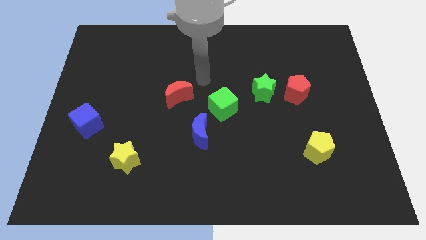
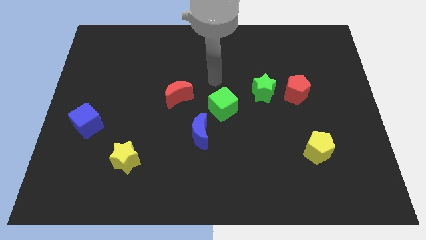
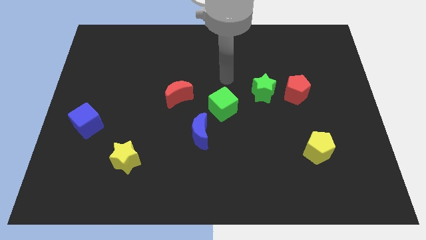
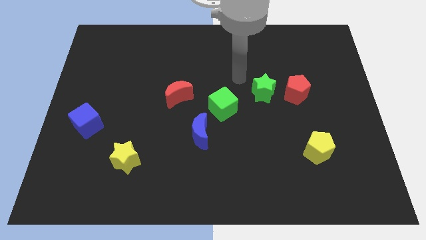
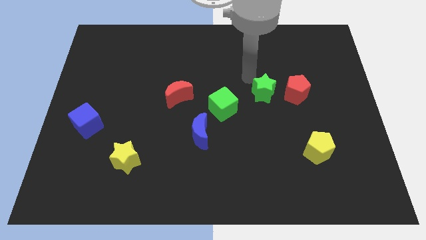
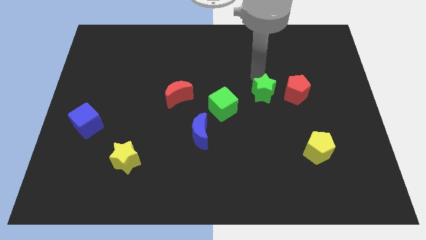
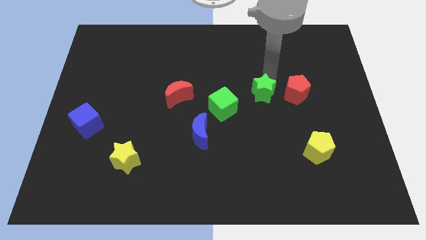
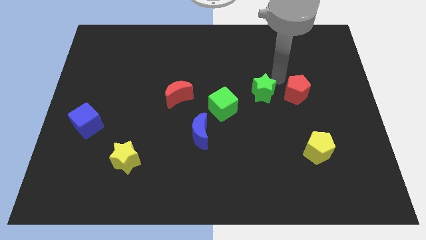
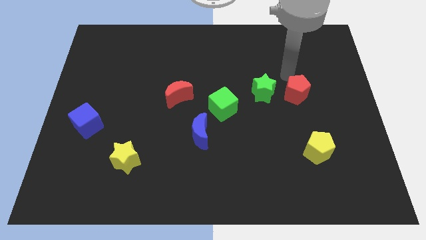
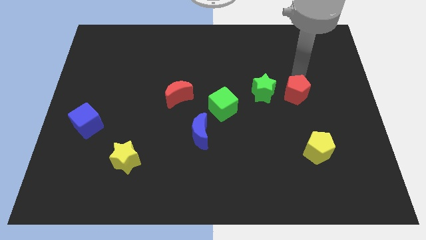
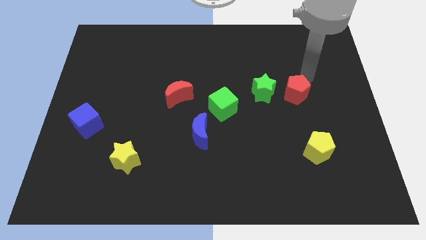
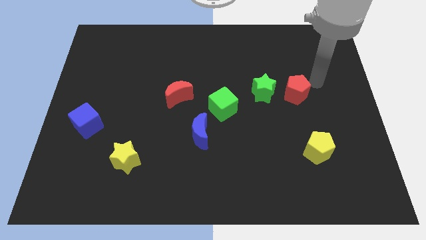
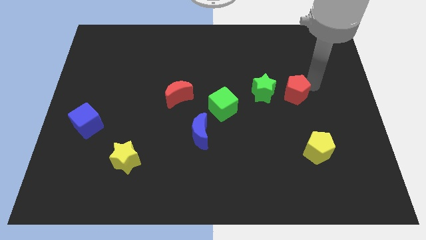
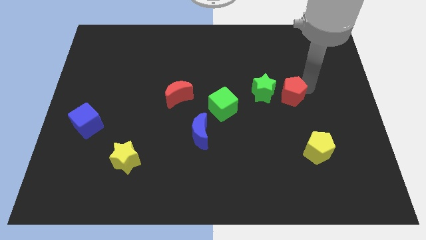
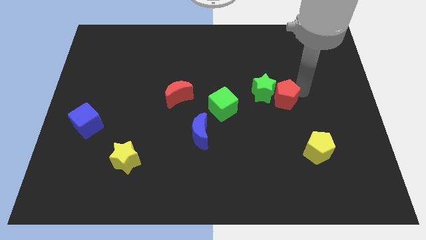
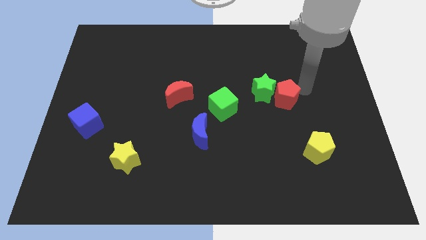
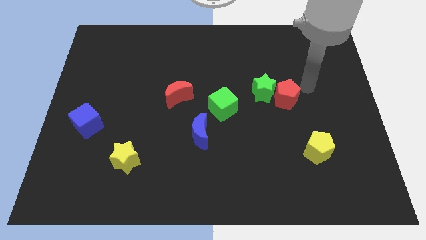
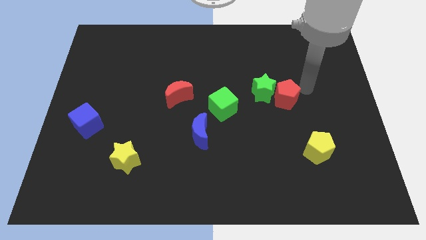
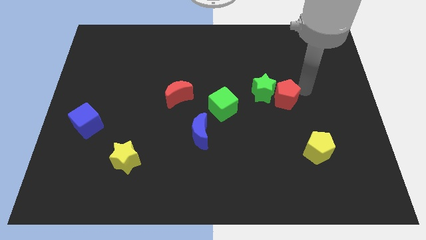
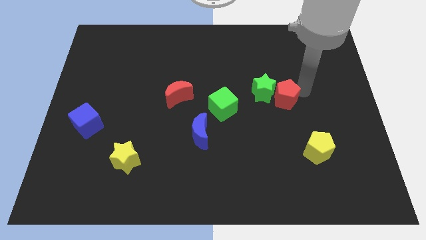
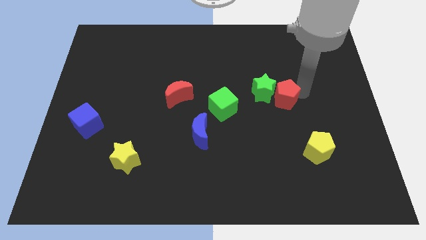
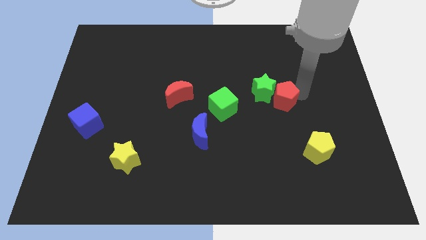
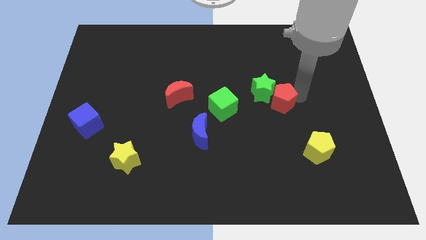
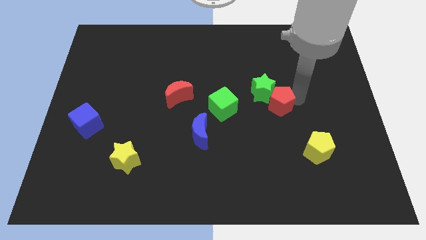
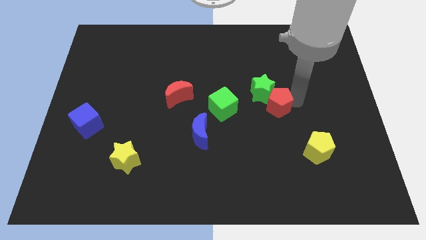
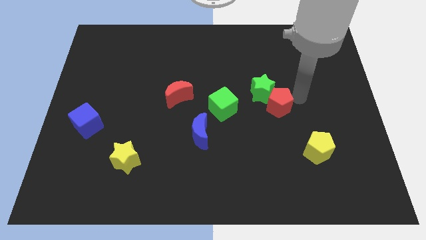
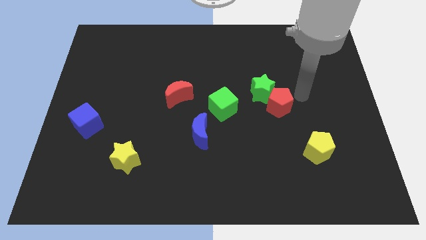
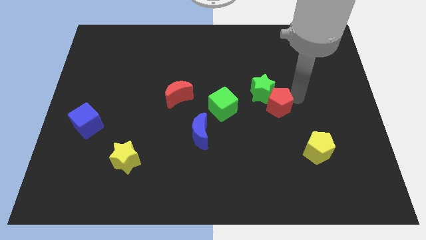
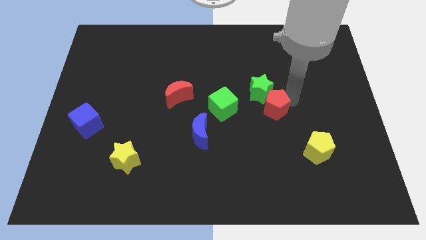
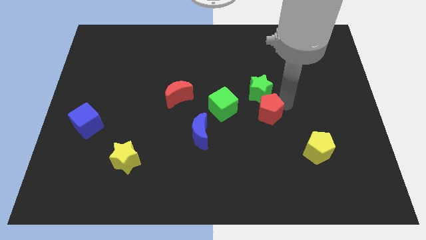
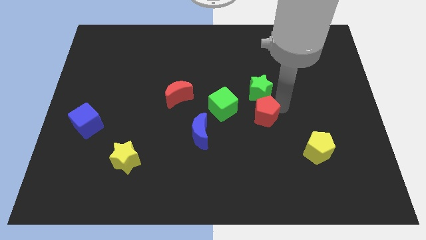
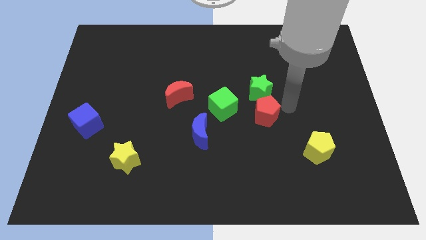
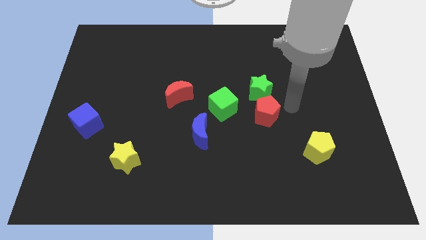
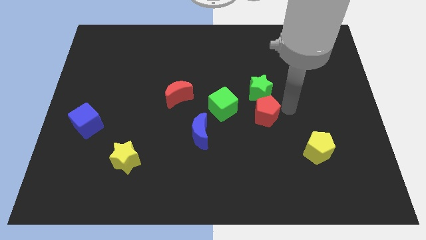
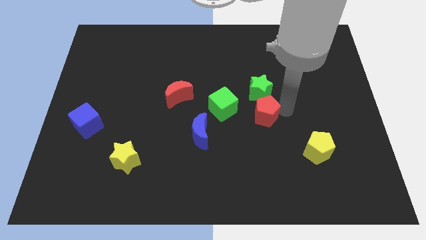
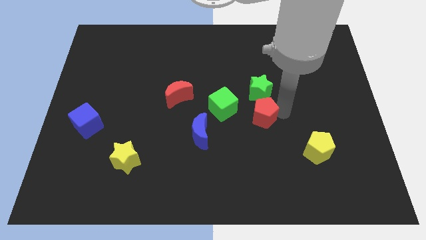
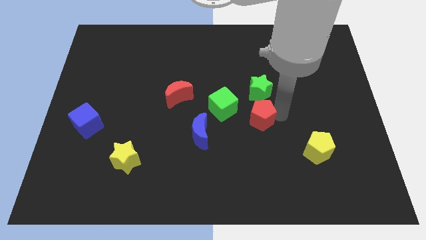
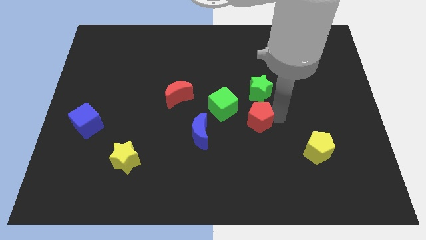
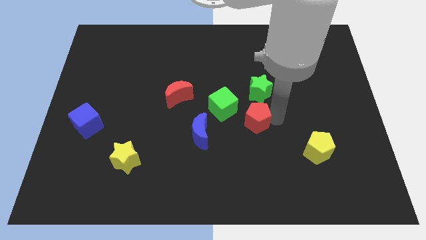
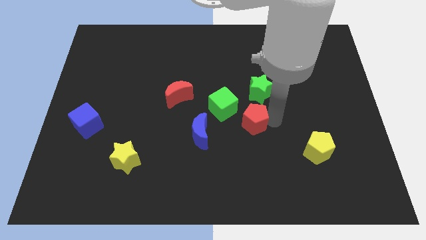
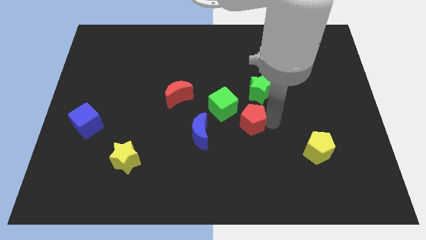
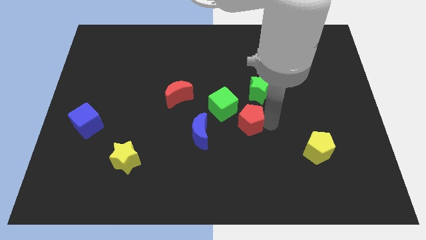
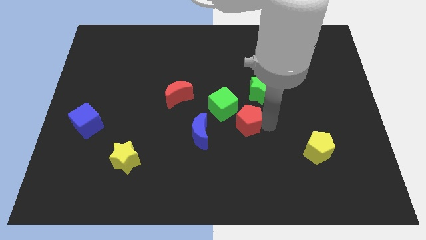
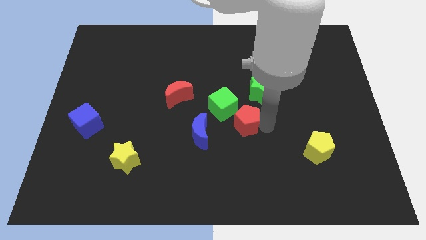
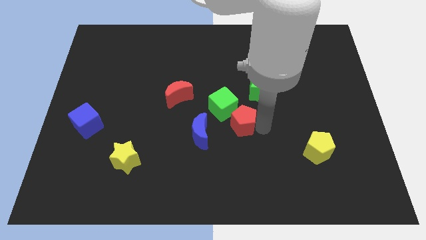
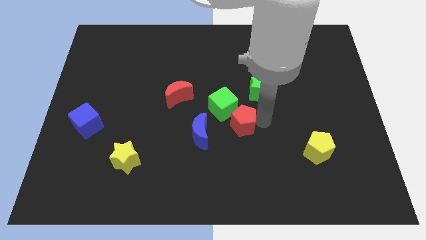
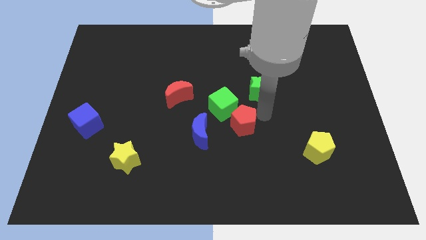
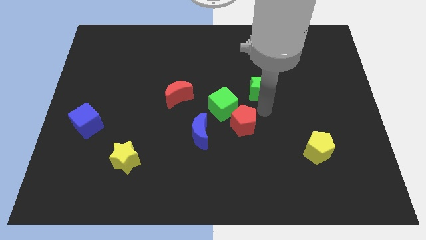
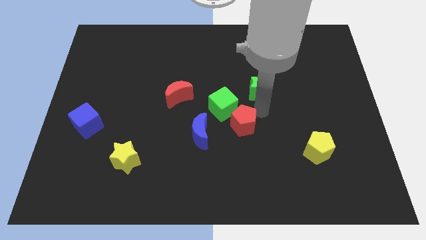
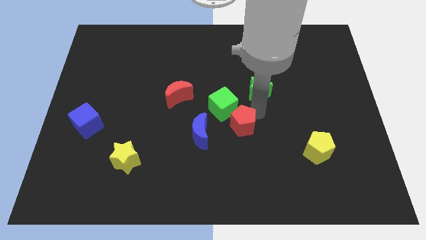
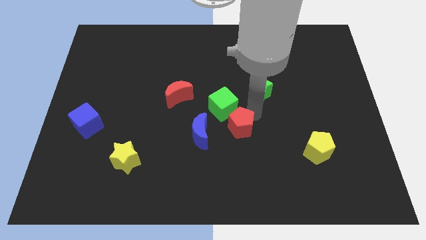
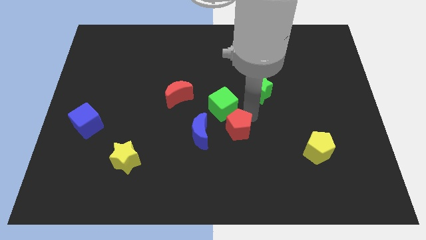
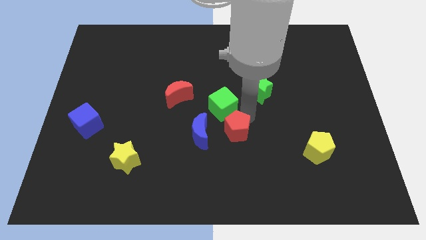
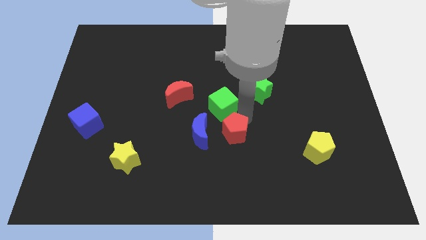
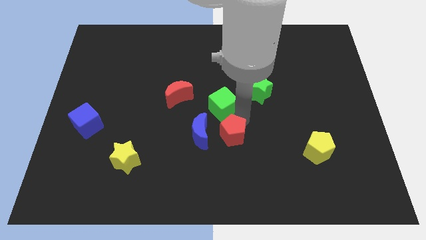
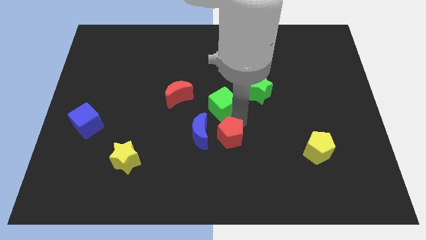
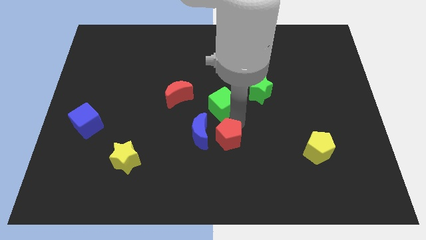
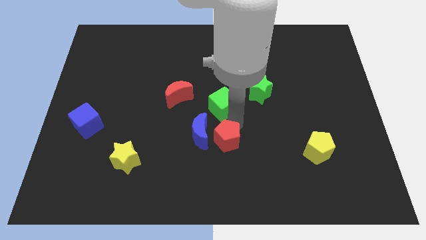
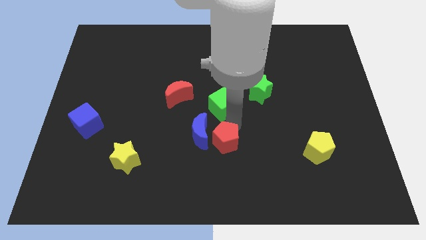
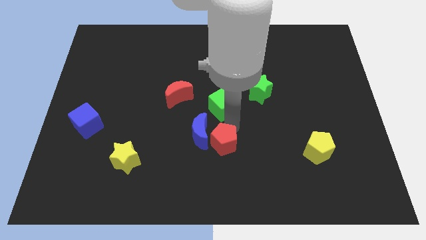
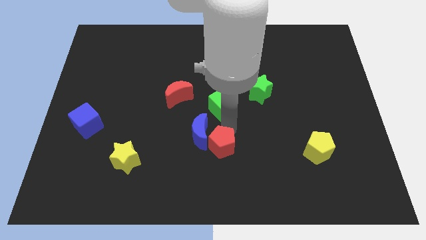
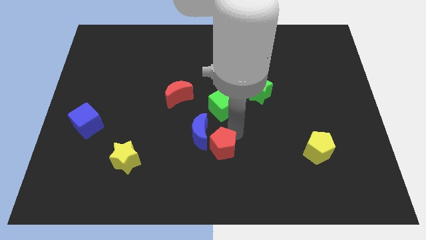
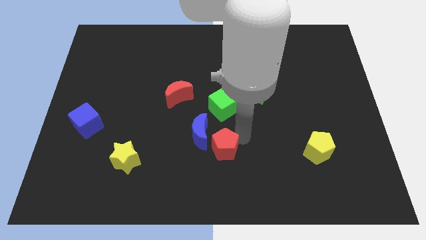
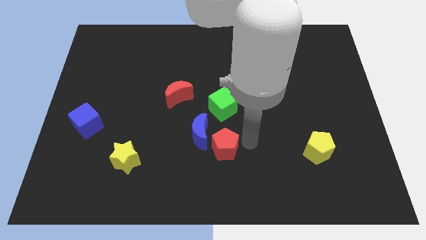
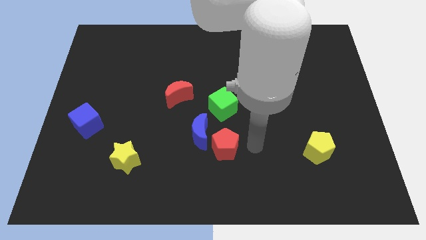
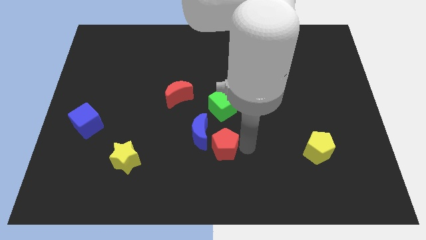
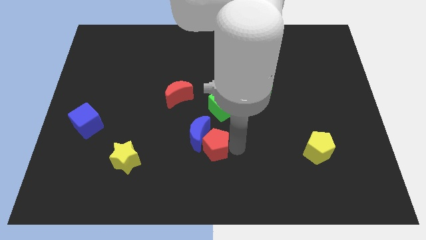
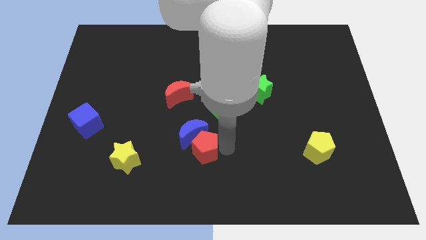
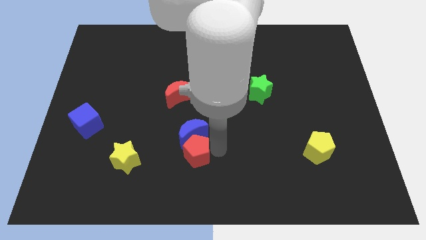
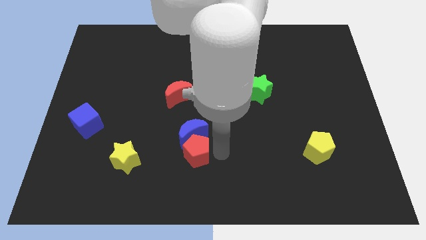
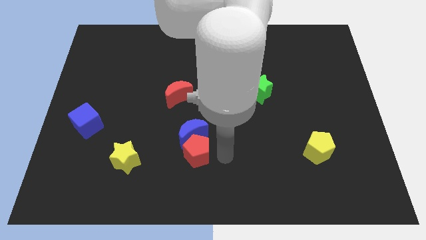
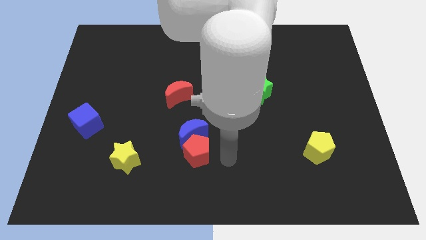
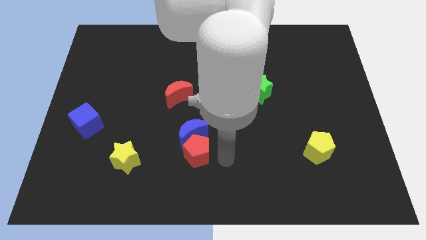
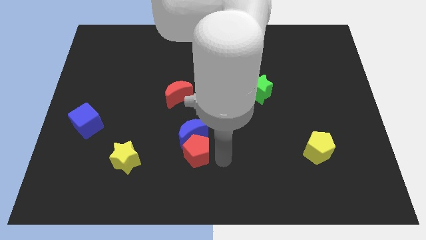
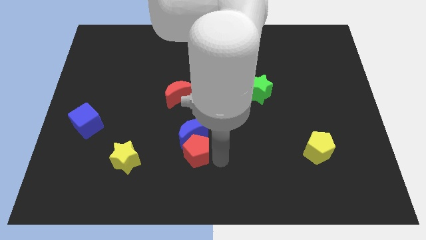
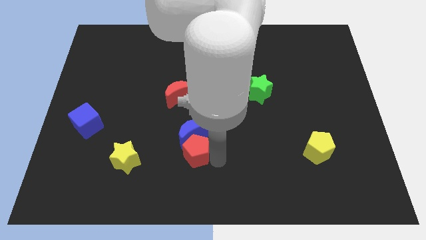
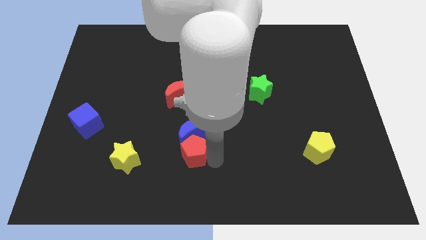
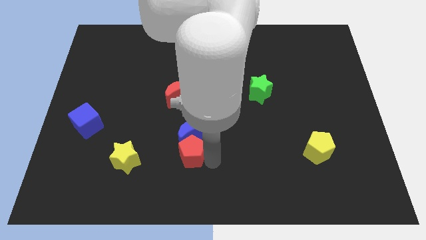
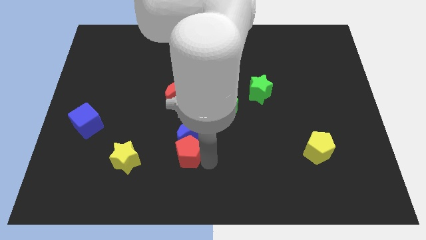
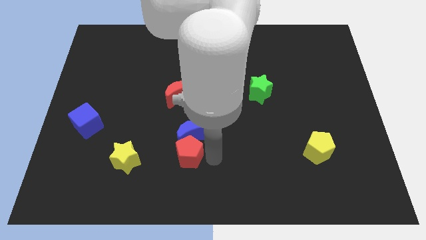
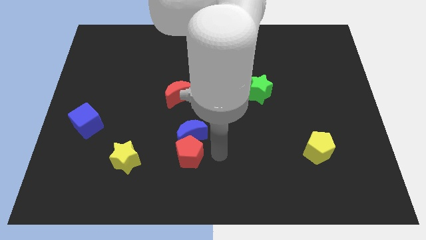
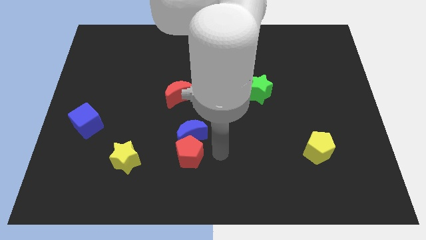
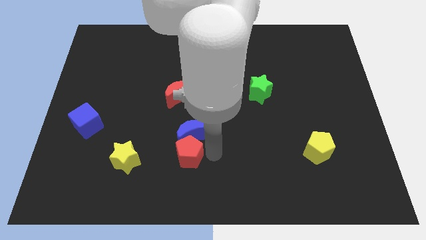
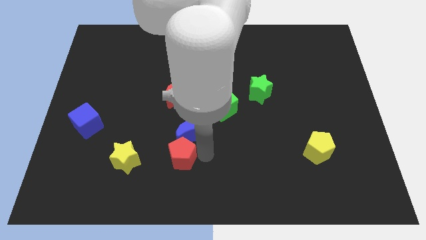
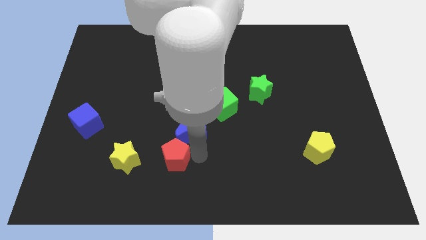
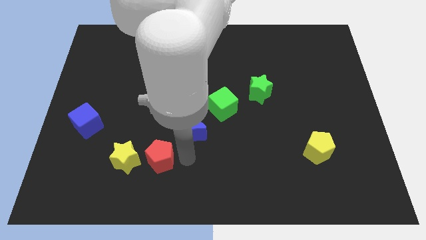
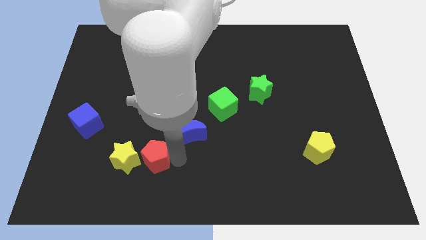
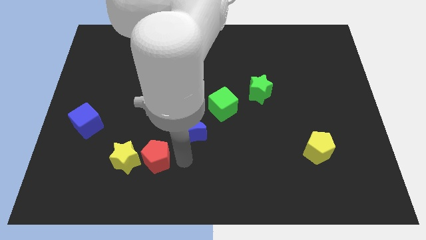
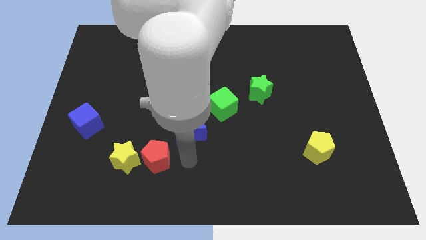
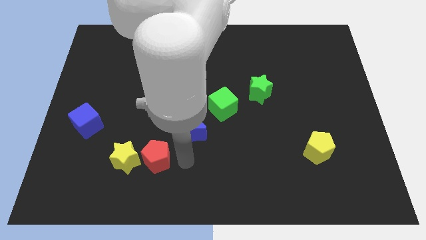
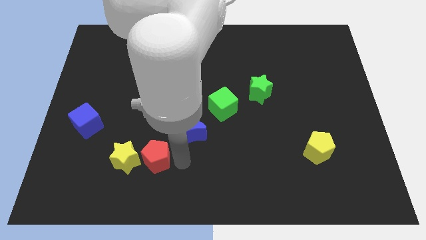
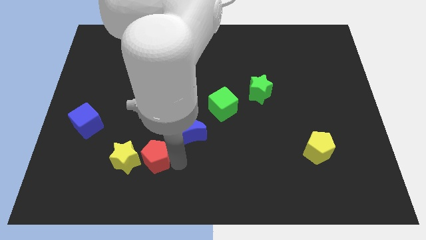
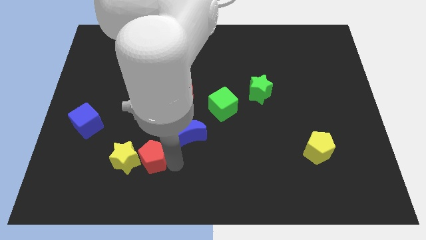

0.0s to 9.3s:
slide the red pentagon towards the yellow star
